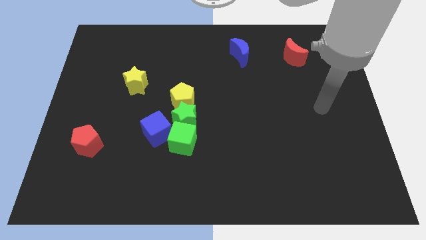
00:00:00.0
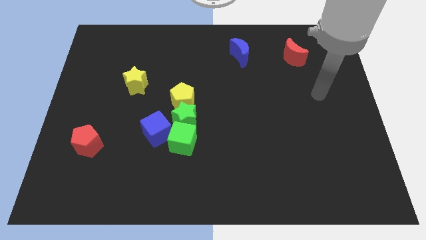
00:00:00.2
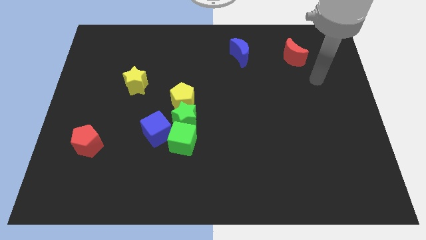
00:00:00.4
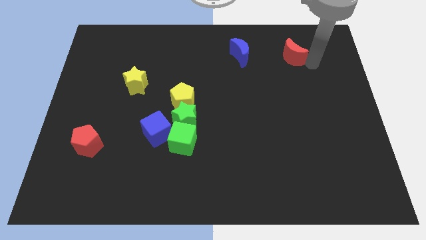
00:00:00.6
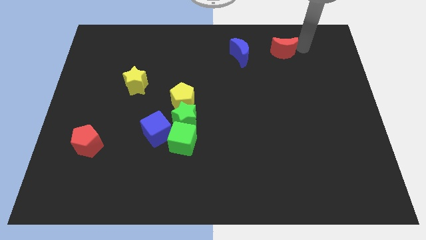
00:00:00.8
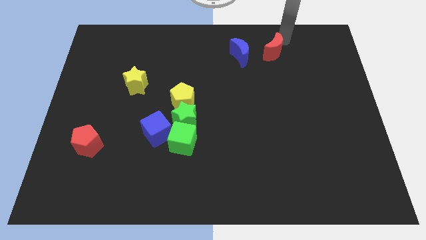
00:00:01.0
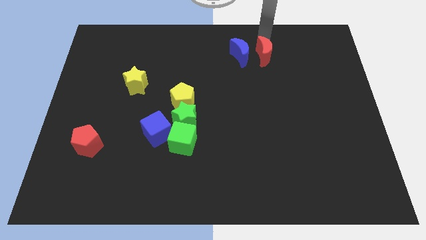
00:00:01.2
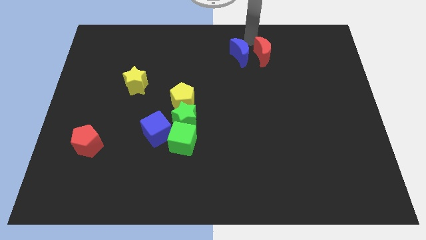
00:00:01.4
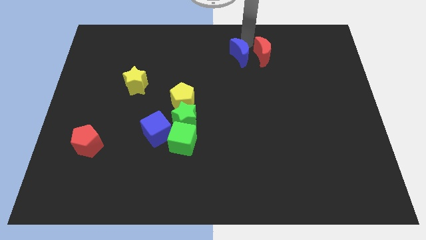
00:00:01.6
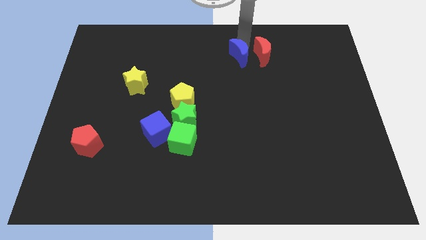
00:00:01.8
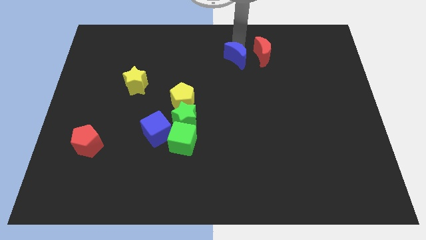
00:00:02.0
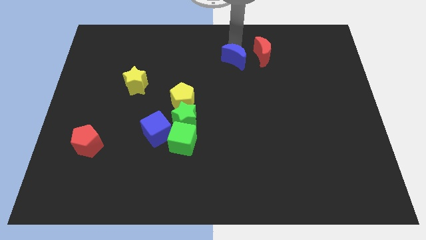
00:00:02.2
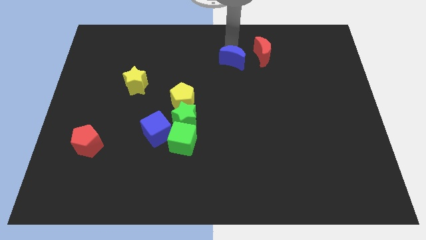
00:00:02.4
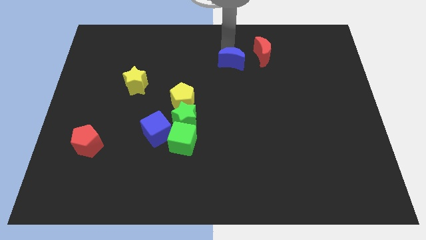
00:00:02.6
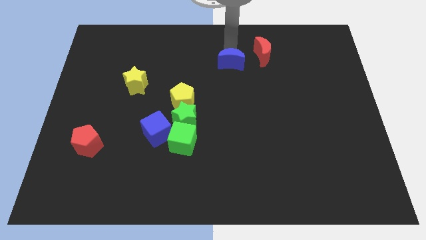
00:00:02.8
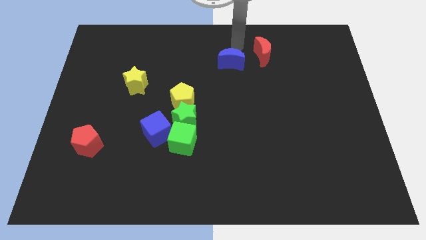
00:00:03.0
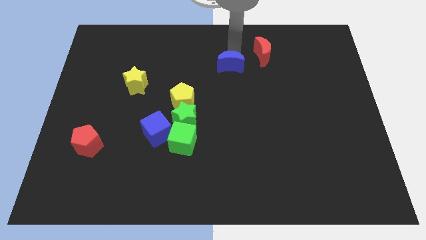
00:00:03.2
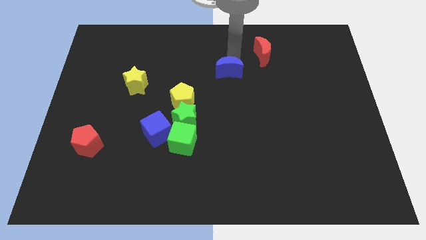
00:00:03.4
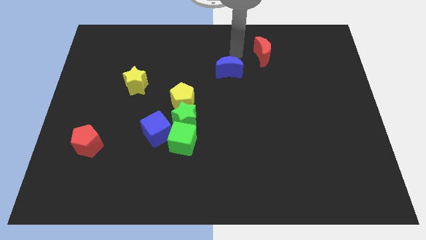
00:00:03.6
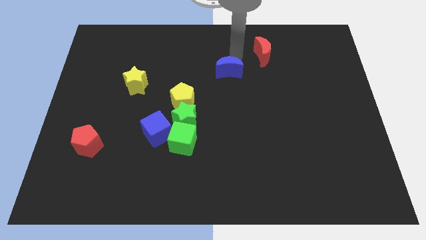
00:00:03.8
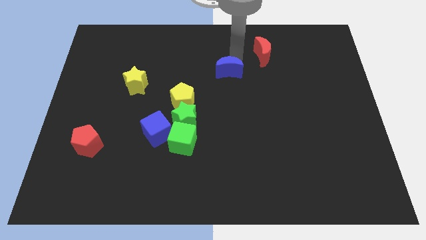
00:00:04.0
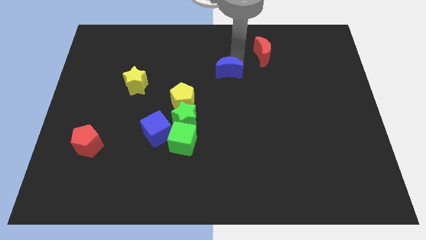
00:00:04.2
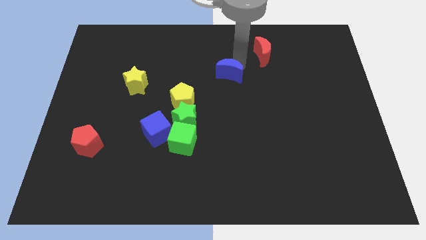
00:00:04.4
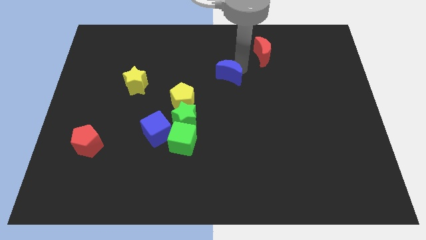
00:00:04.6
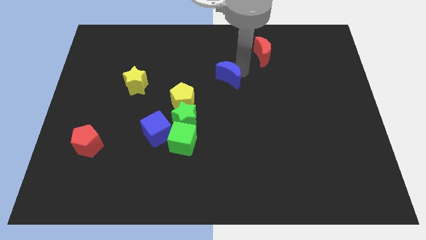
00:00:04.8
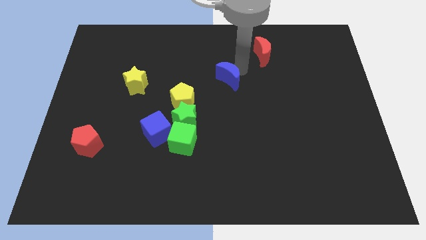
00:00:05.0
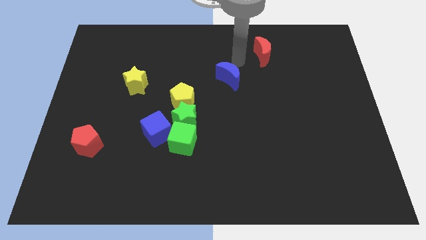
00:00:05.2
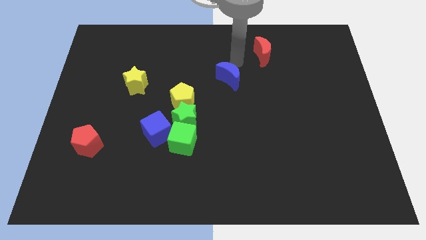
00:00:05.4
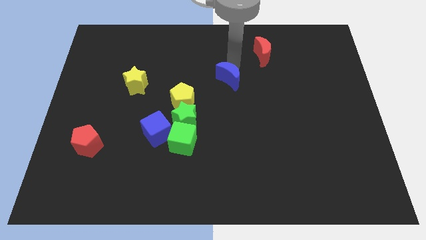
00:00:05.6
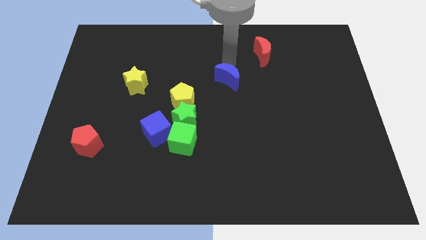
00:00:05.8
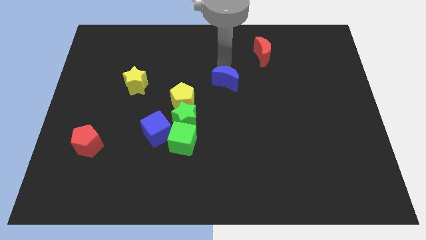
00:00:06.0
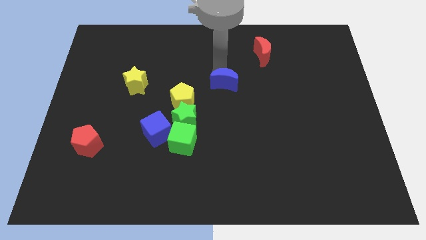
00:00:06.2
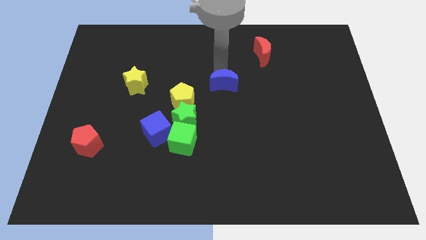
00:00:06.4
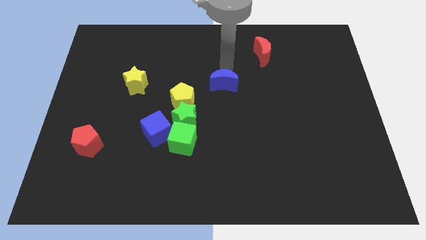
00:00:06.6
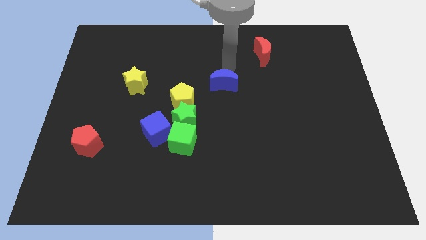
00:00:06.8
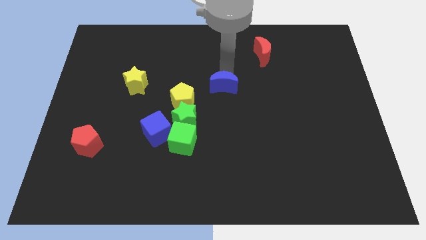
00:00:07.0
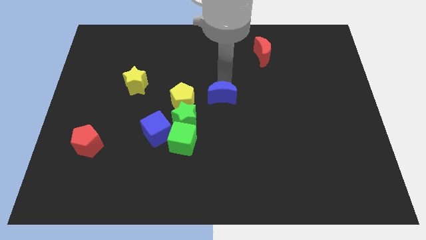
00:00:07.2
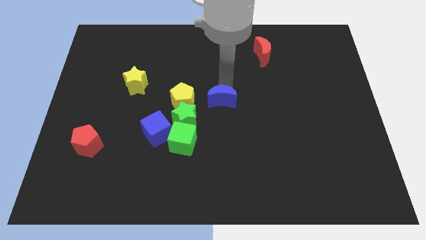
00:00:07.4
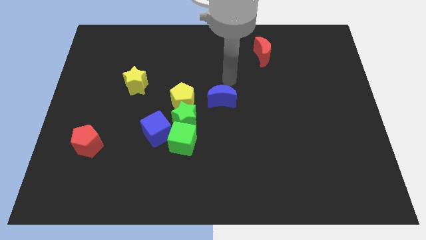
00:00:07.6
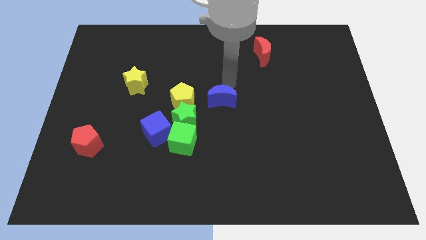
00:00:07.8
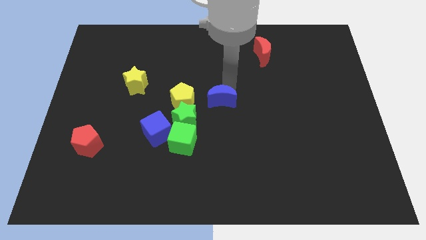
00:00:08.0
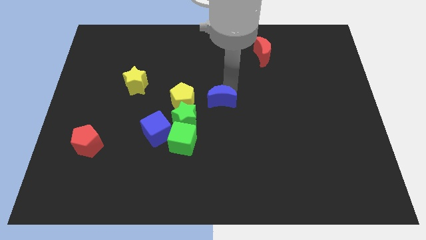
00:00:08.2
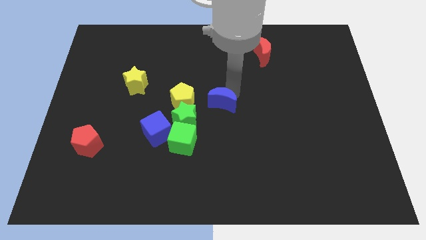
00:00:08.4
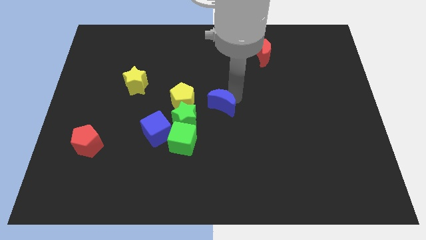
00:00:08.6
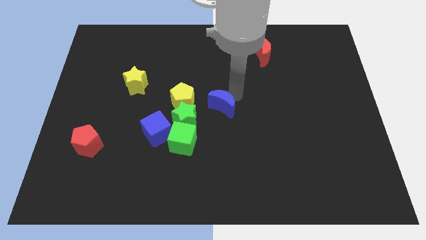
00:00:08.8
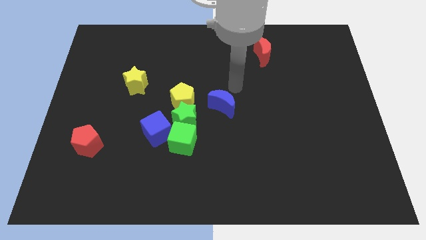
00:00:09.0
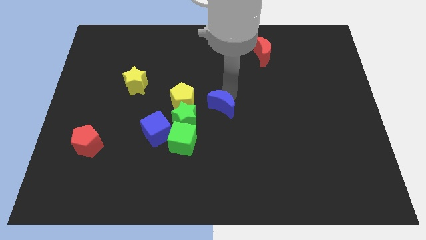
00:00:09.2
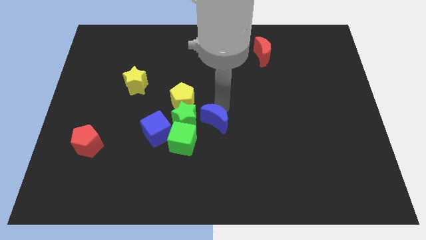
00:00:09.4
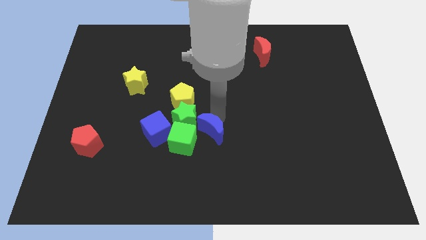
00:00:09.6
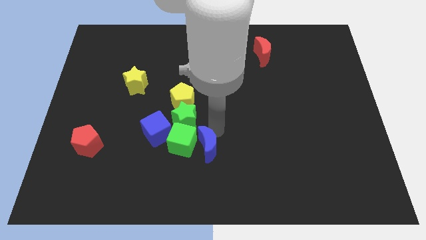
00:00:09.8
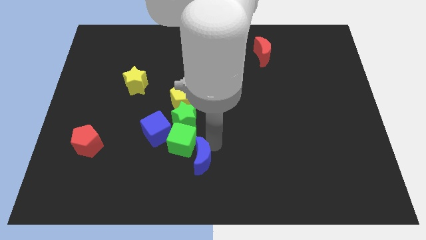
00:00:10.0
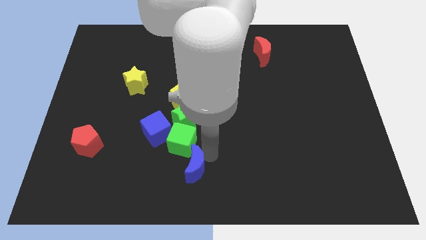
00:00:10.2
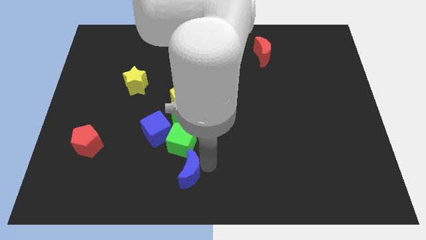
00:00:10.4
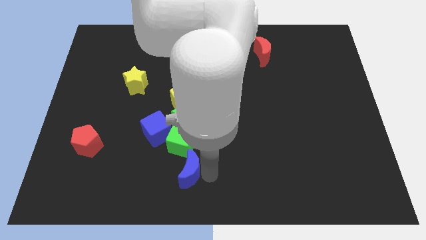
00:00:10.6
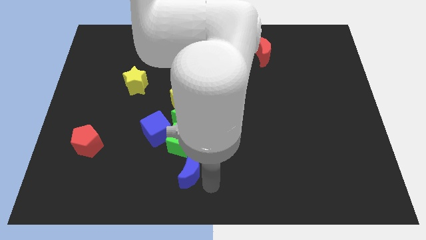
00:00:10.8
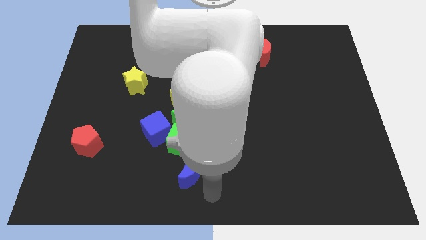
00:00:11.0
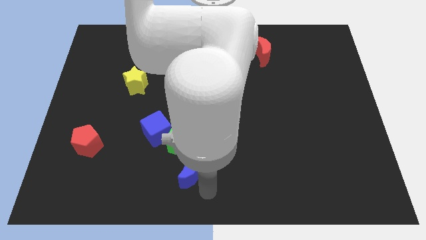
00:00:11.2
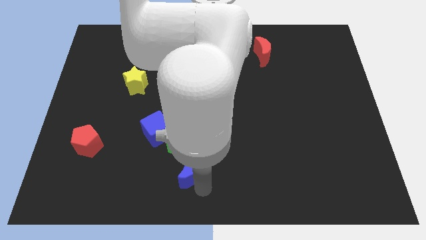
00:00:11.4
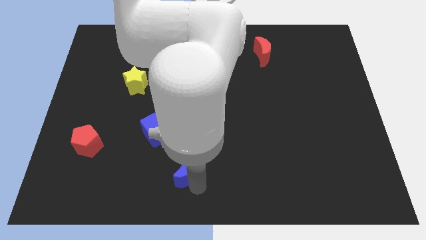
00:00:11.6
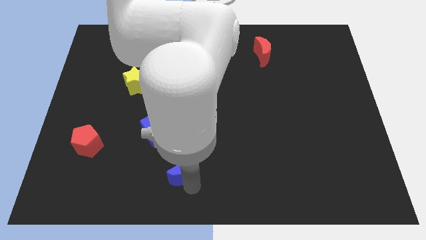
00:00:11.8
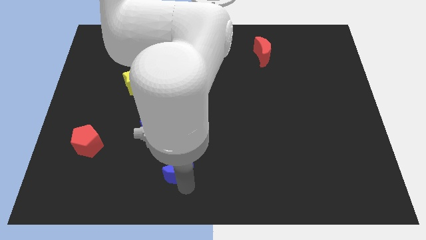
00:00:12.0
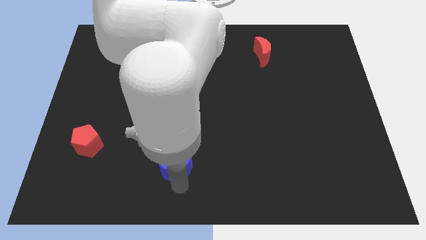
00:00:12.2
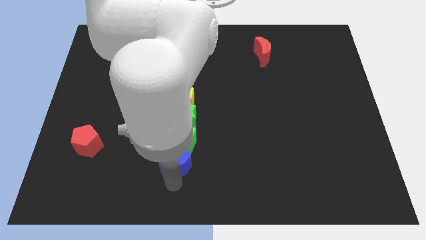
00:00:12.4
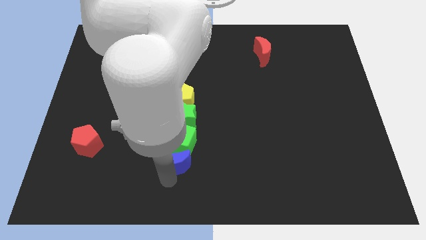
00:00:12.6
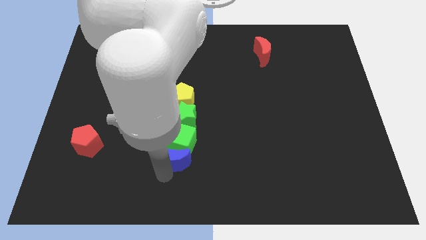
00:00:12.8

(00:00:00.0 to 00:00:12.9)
put the blue moon to the bottom side of the yellow pentagon
